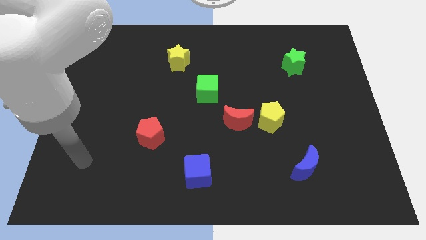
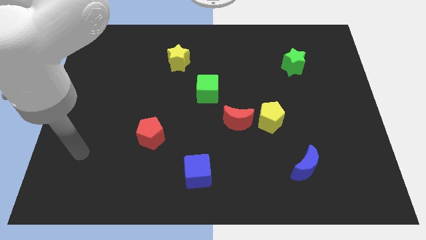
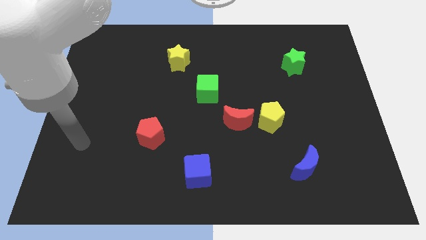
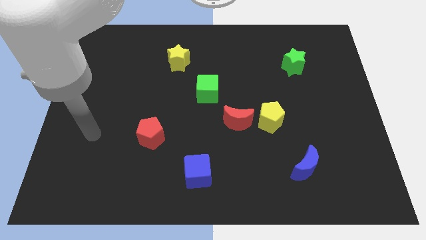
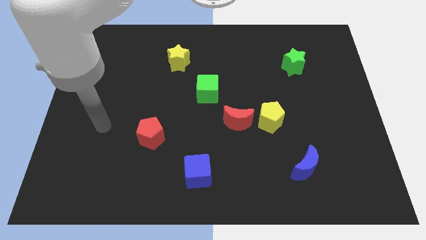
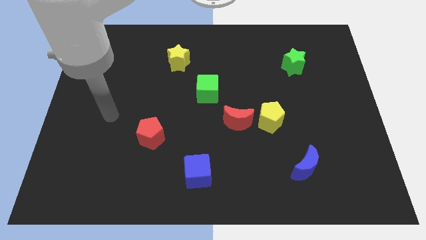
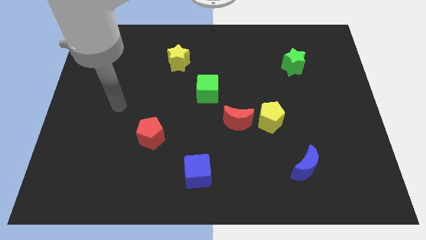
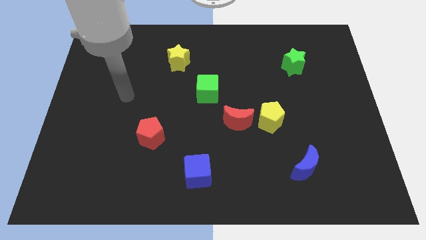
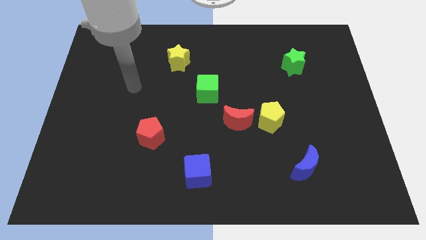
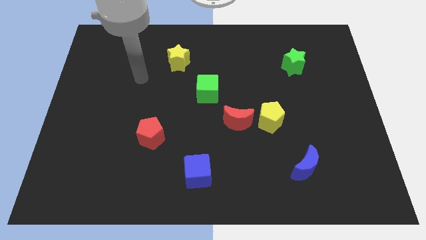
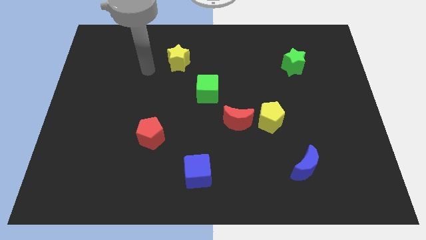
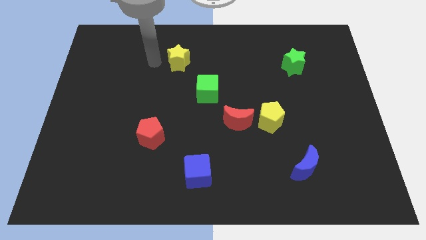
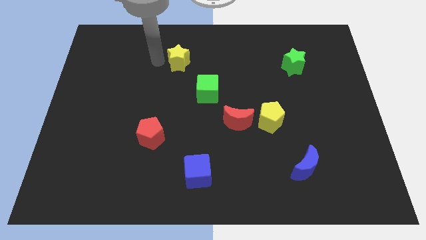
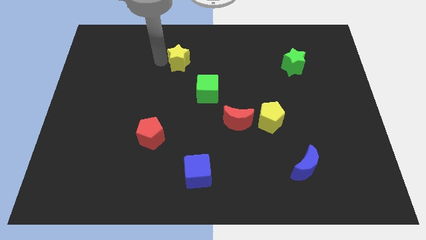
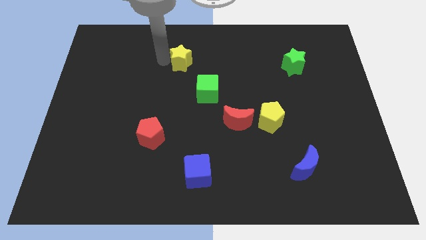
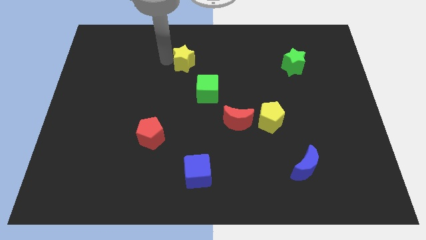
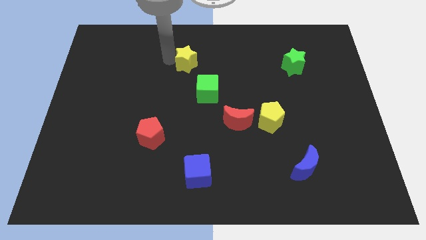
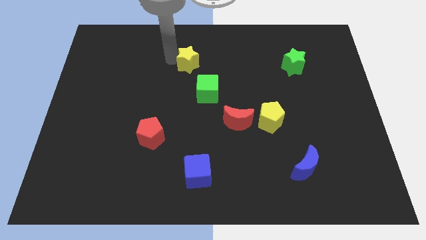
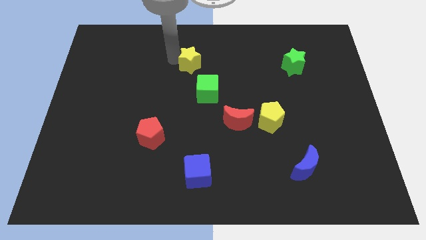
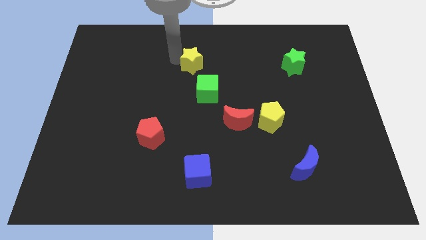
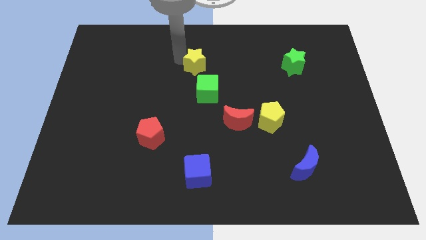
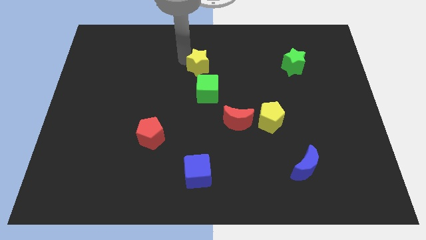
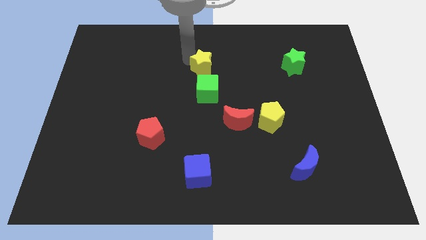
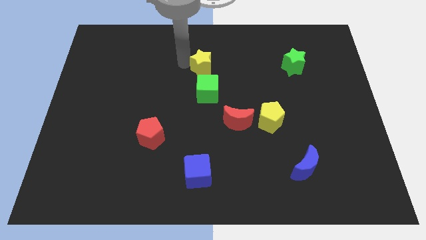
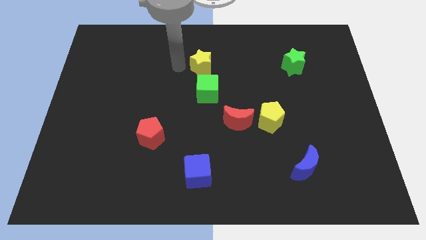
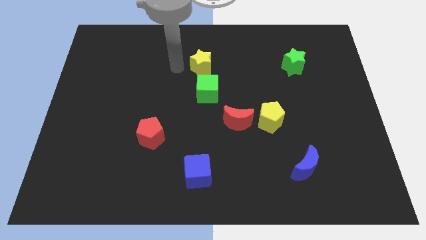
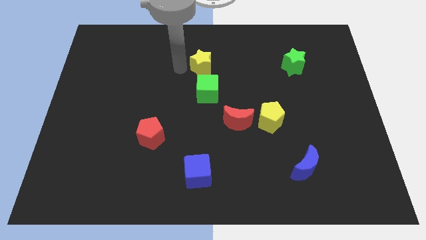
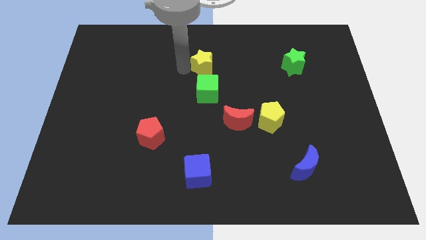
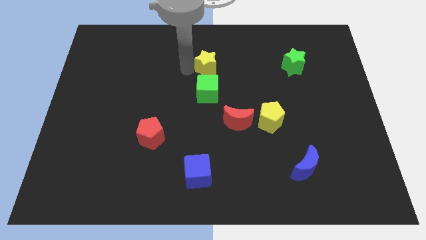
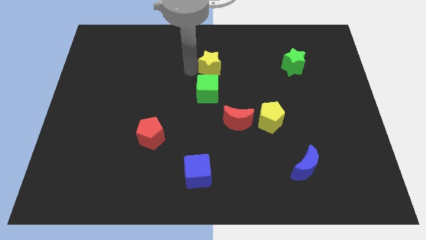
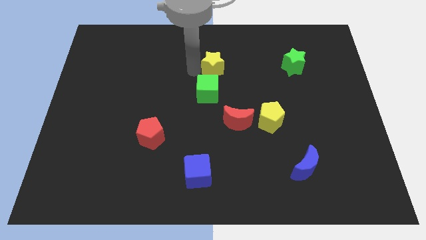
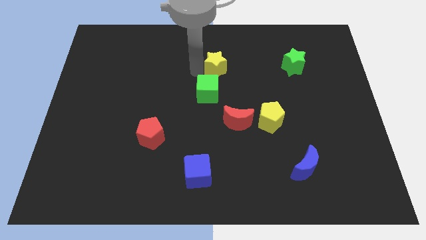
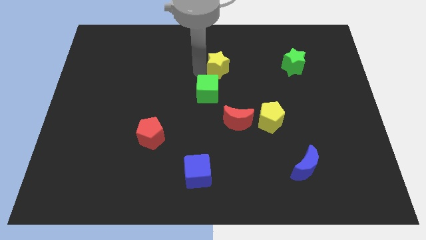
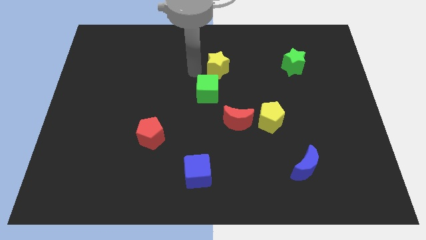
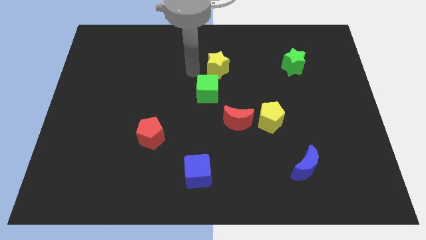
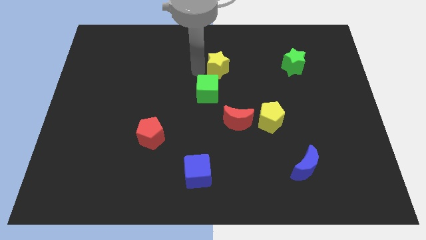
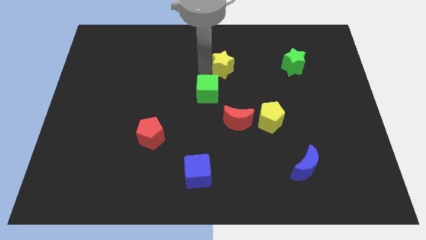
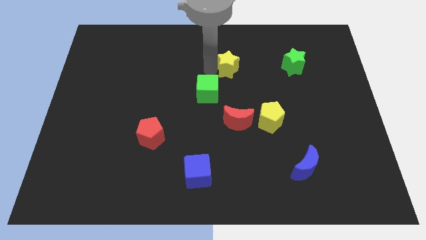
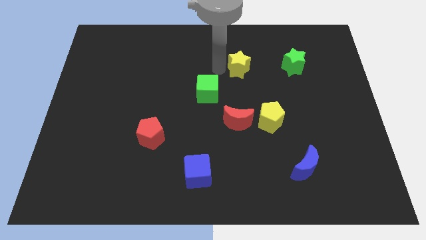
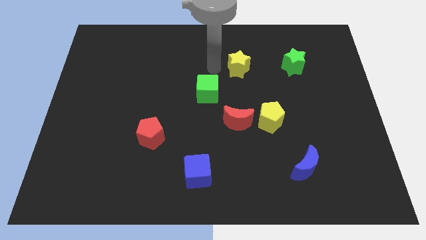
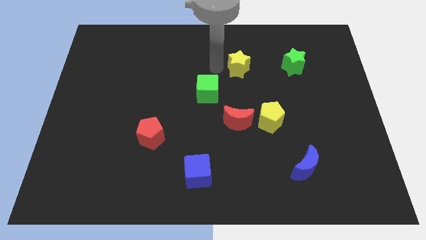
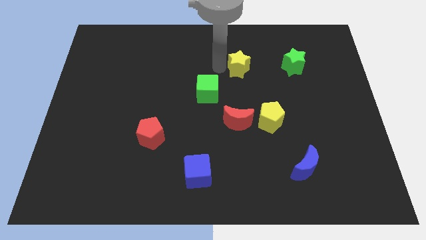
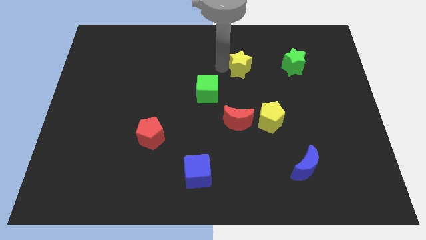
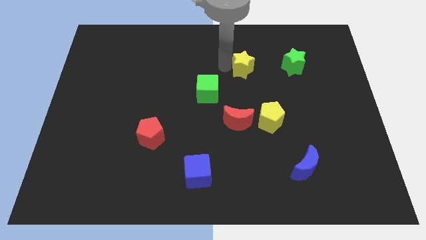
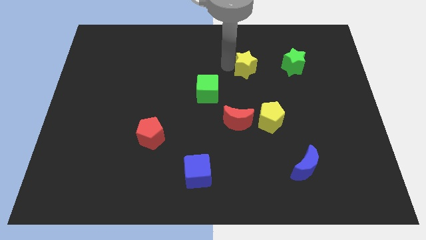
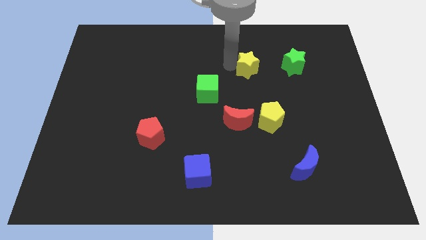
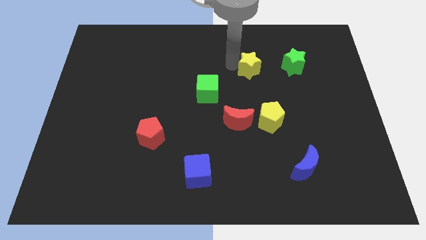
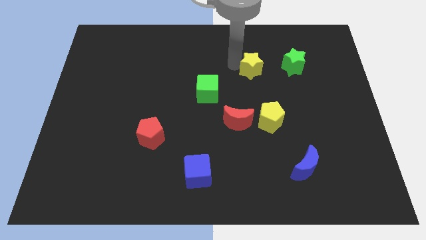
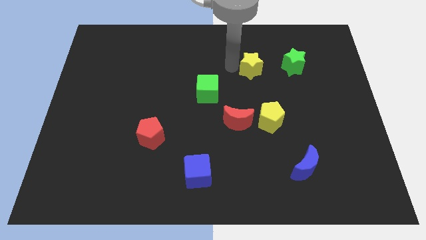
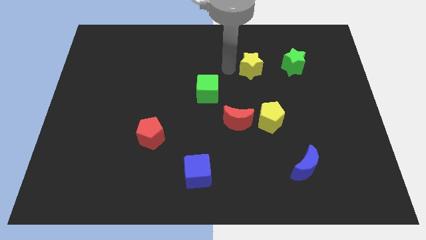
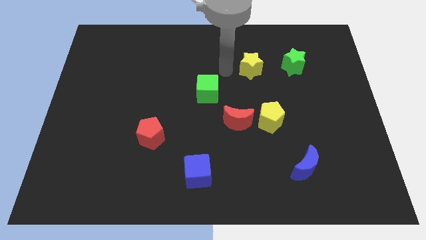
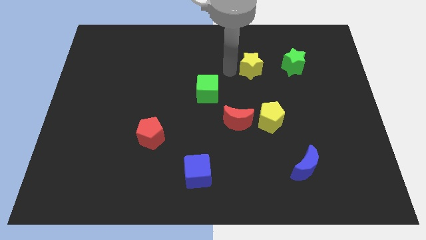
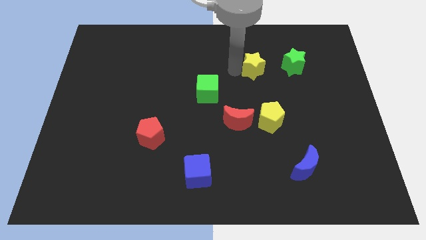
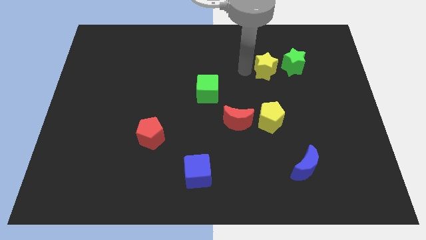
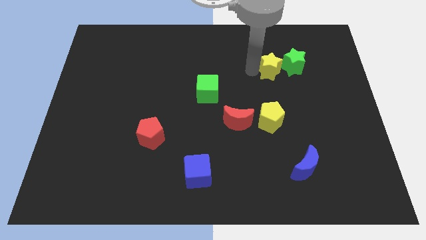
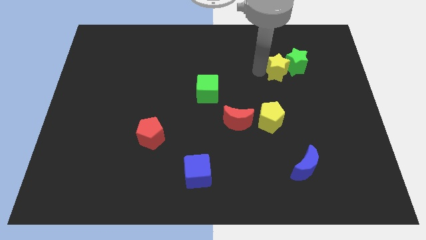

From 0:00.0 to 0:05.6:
push the yellow star close to the green star

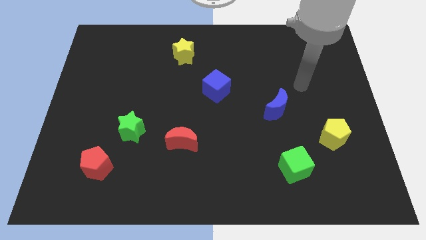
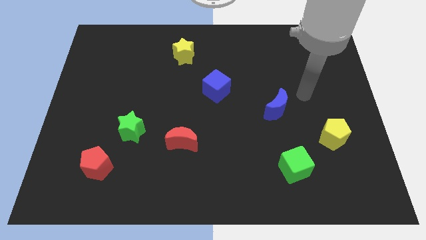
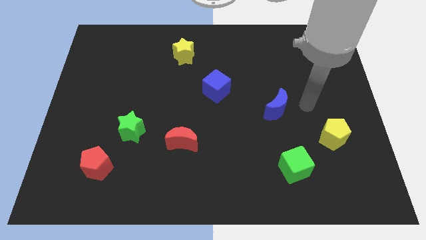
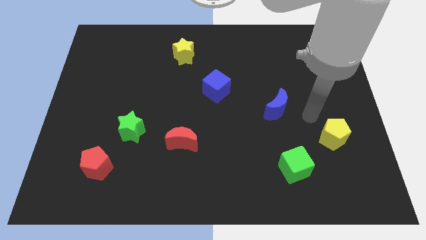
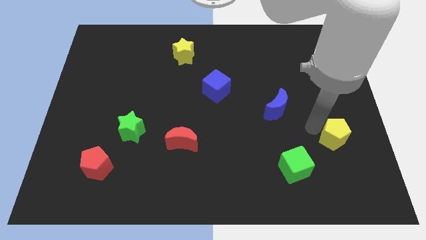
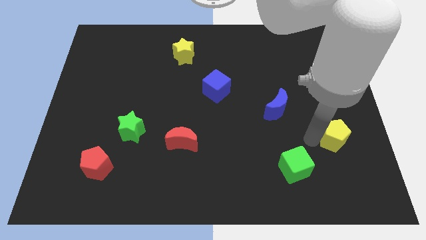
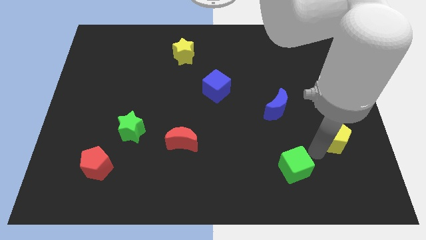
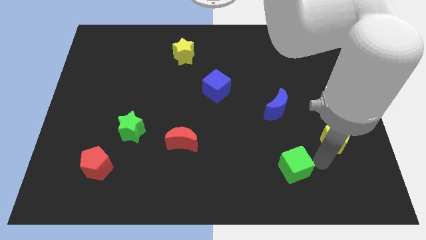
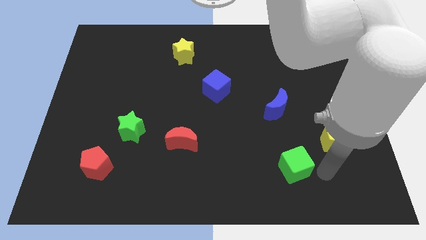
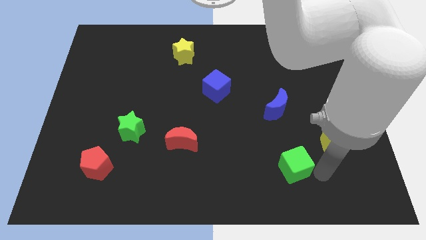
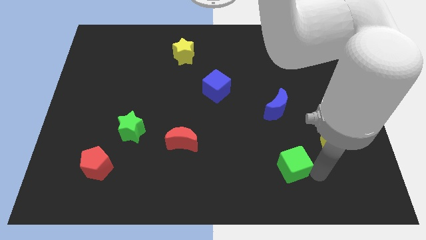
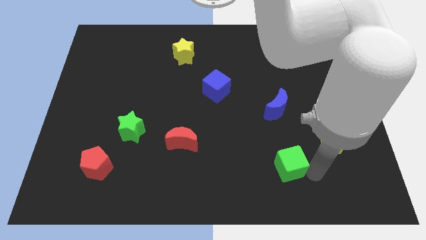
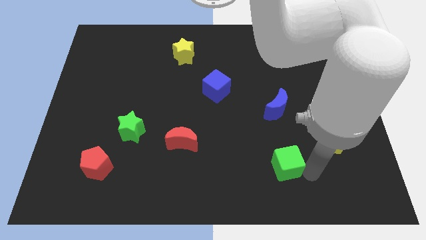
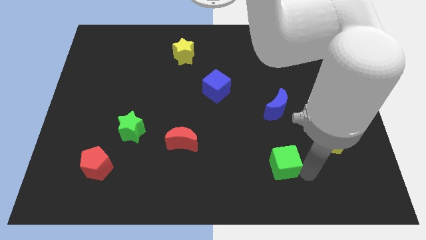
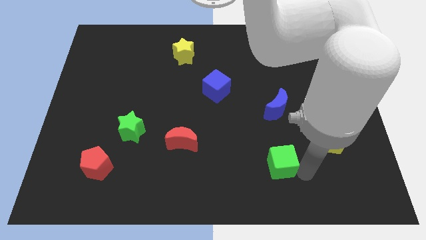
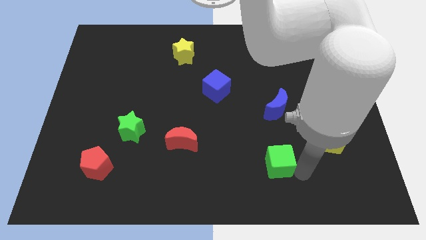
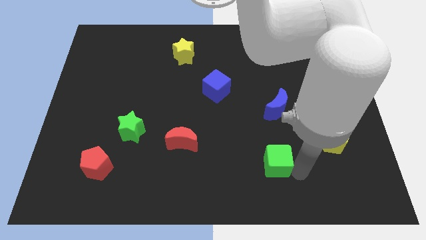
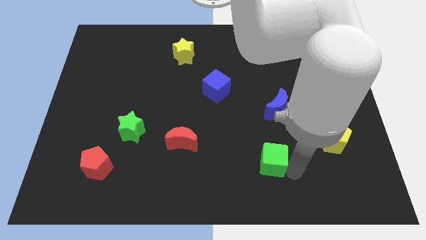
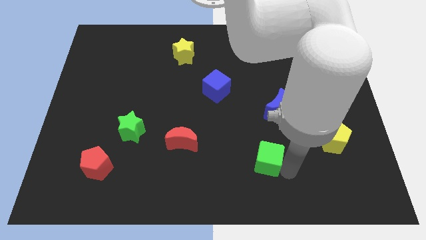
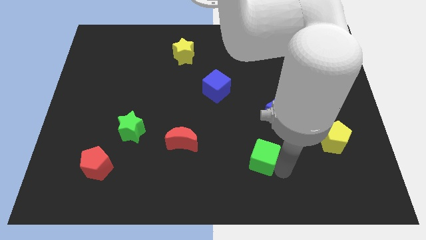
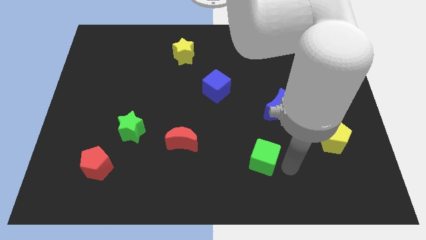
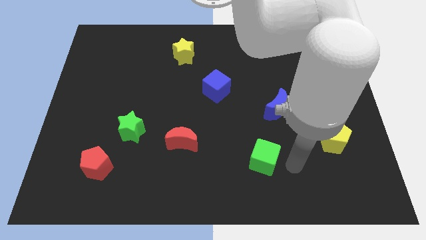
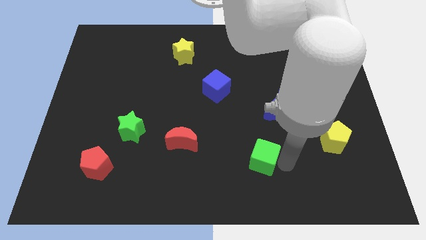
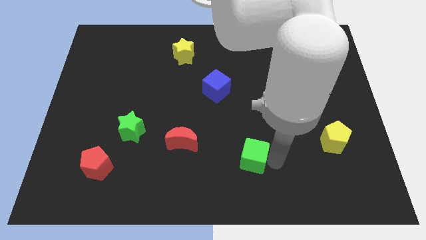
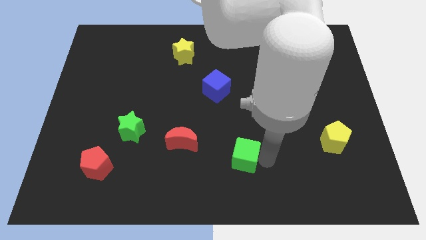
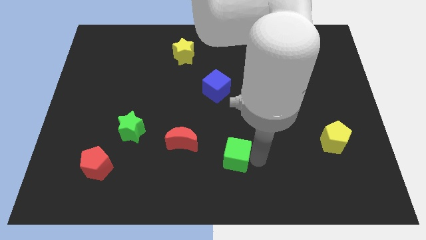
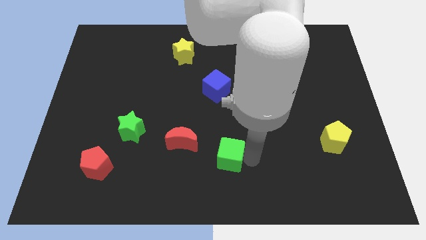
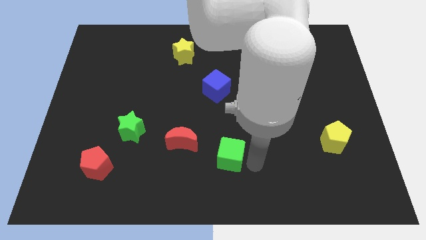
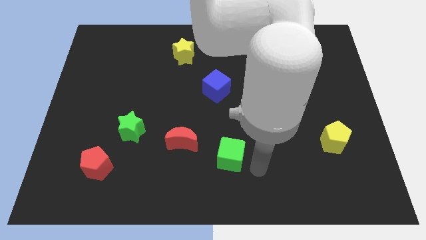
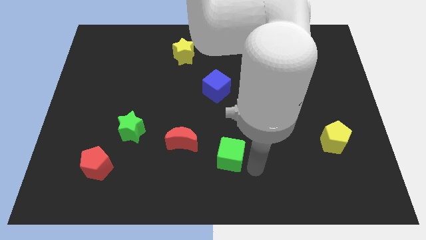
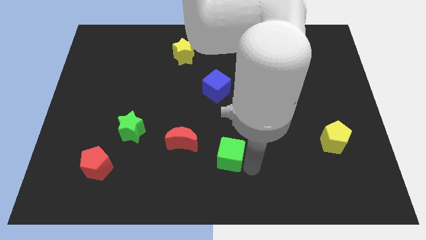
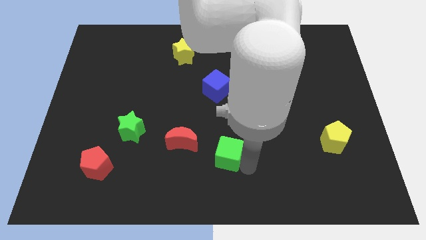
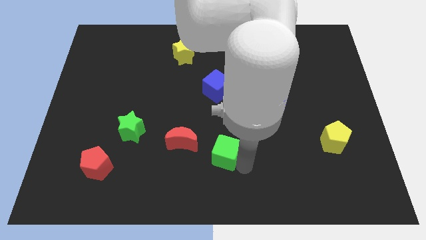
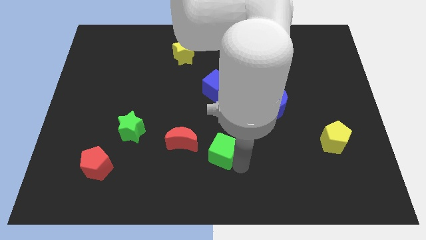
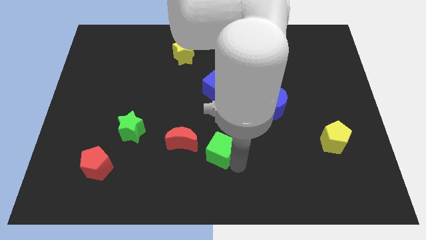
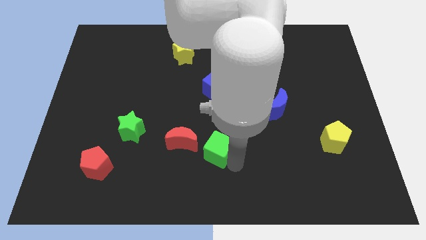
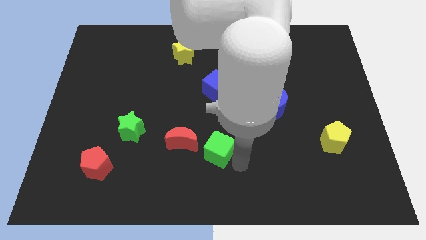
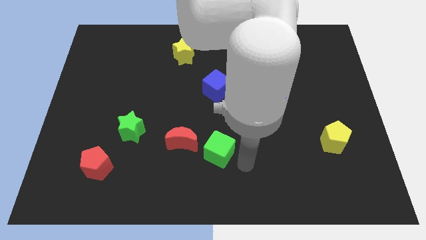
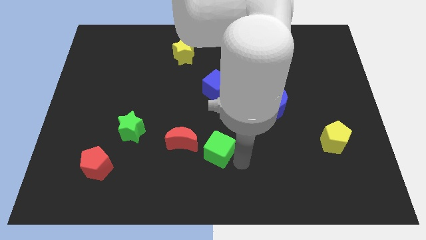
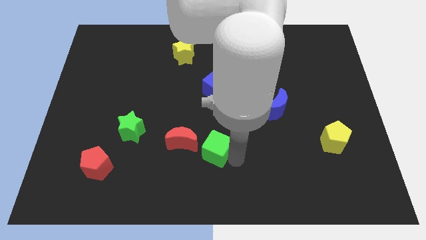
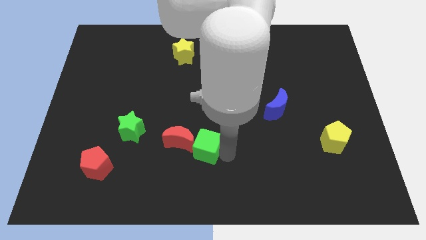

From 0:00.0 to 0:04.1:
push the green cube next to the red moon
